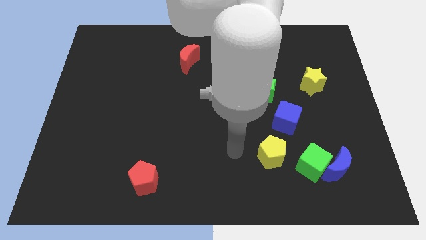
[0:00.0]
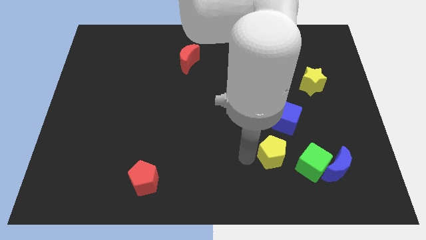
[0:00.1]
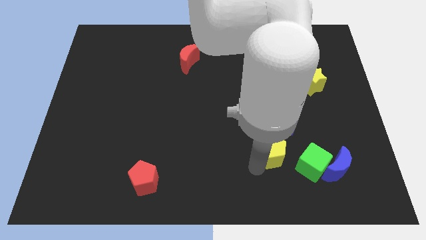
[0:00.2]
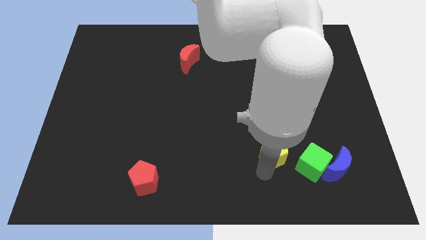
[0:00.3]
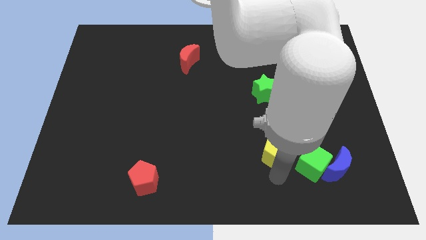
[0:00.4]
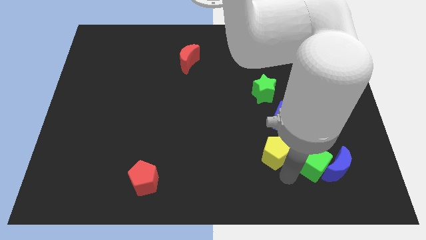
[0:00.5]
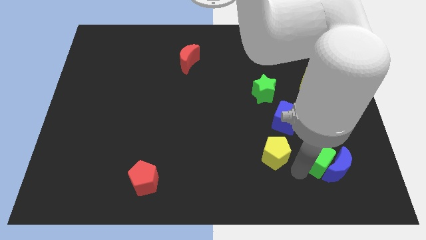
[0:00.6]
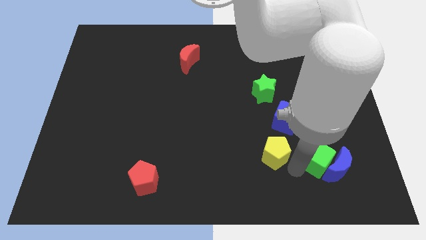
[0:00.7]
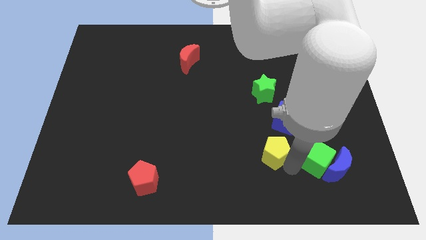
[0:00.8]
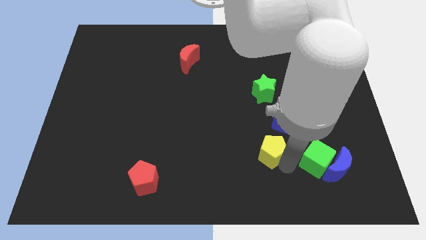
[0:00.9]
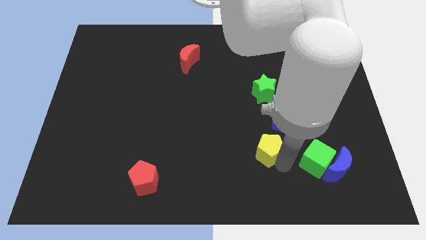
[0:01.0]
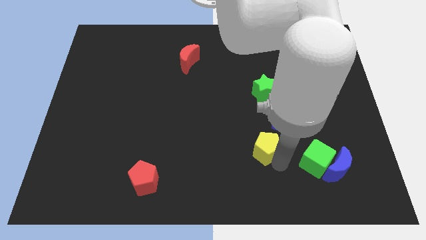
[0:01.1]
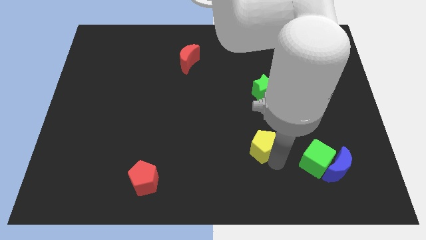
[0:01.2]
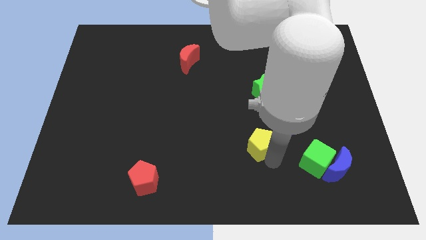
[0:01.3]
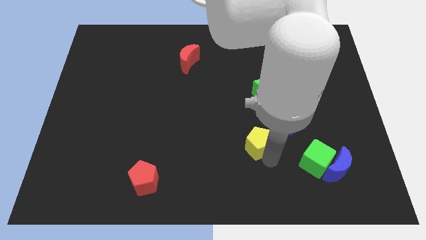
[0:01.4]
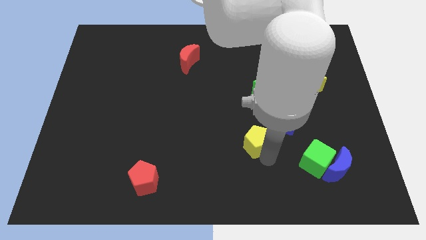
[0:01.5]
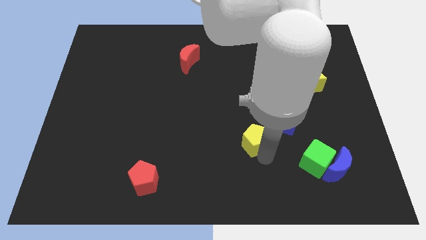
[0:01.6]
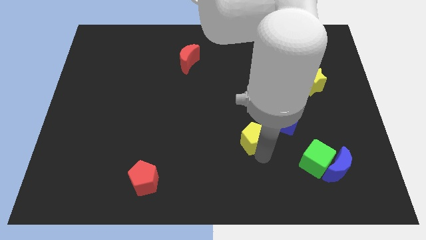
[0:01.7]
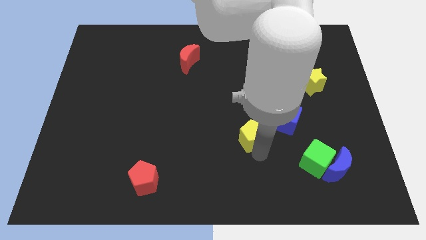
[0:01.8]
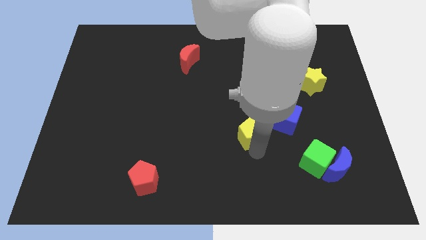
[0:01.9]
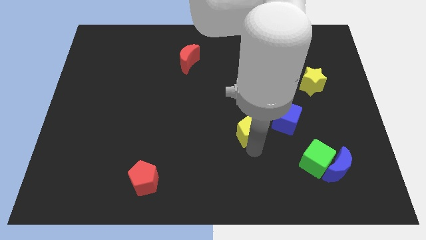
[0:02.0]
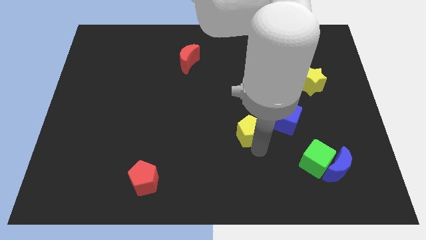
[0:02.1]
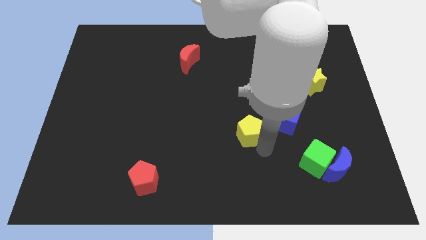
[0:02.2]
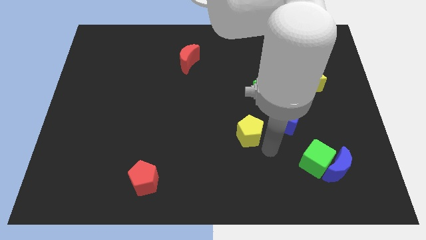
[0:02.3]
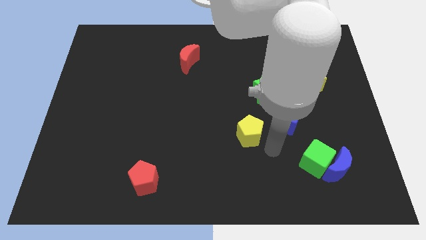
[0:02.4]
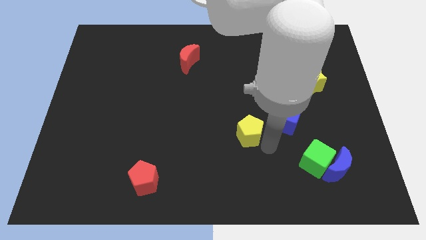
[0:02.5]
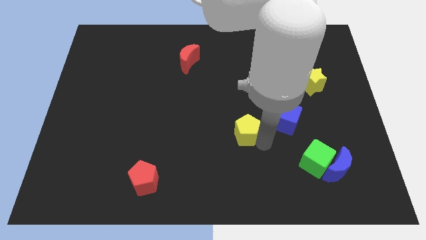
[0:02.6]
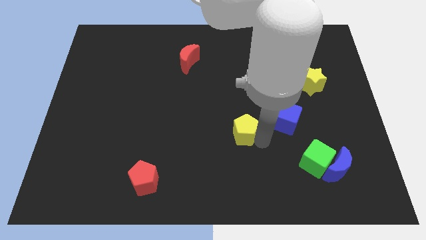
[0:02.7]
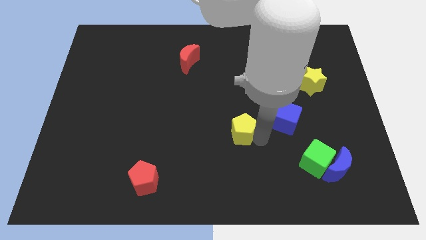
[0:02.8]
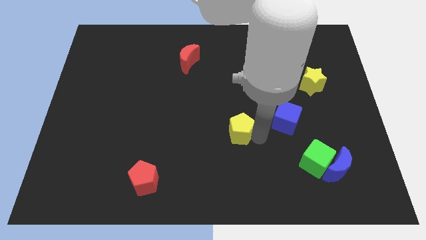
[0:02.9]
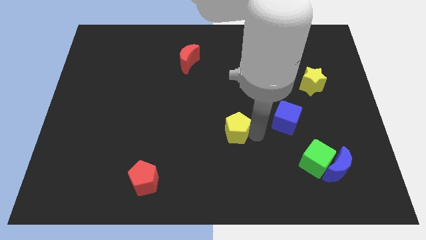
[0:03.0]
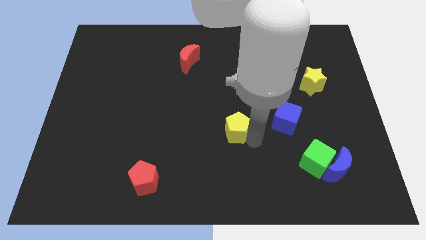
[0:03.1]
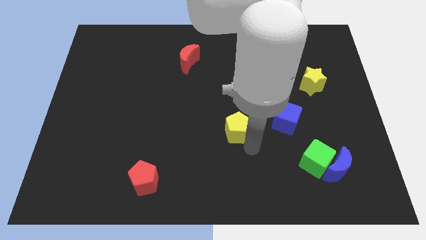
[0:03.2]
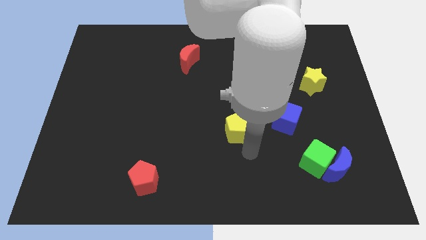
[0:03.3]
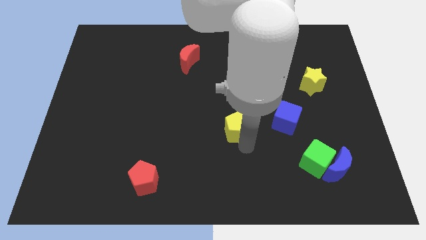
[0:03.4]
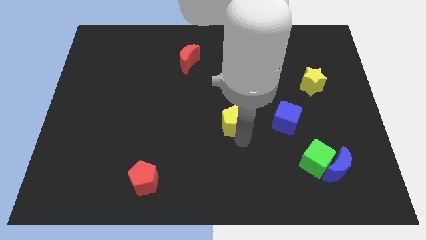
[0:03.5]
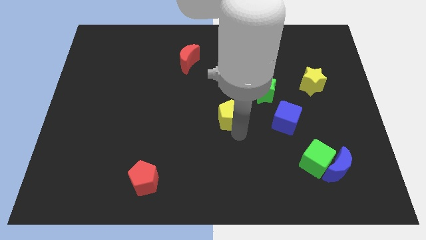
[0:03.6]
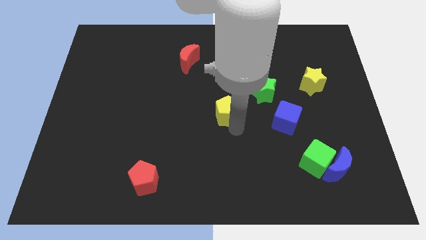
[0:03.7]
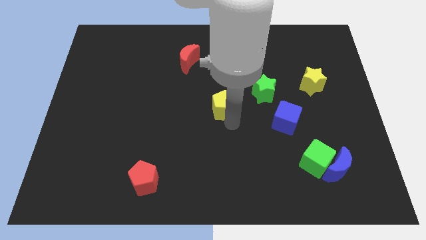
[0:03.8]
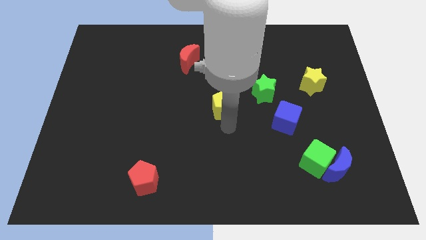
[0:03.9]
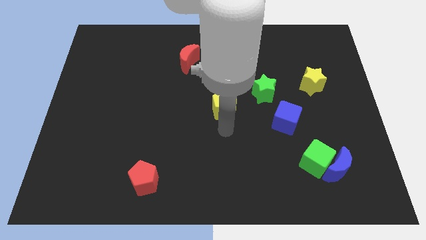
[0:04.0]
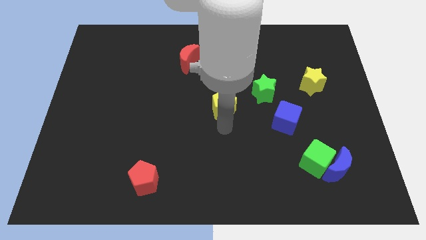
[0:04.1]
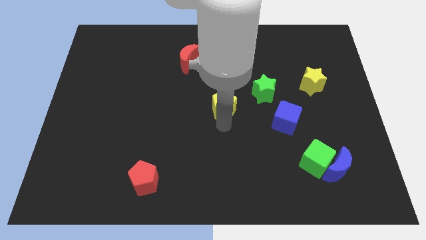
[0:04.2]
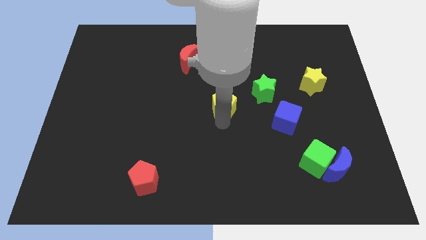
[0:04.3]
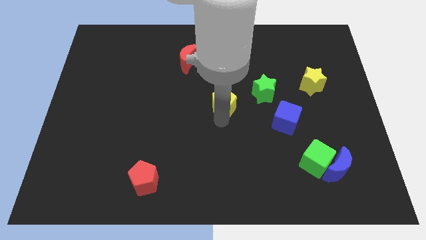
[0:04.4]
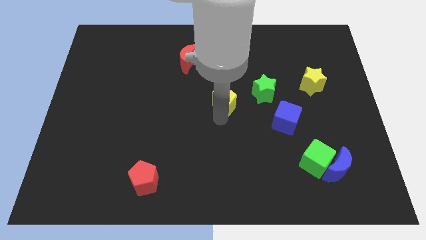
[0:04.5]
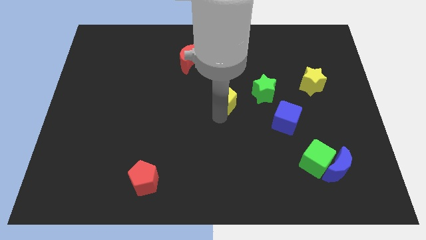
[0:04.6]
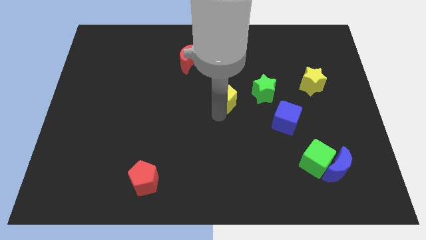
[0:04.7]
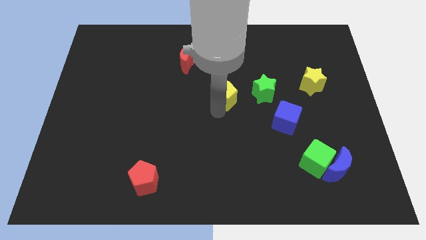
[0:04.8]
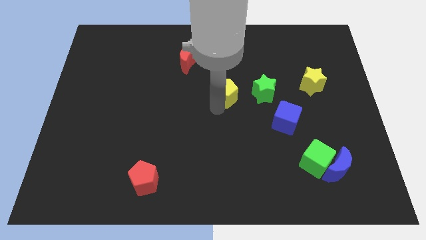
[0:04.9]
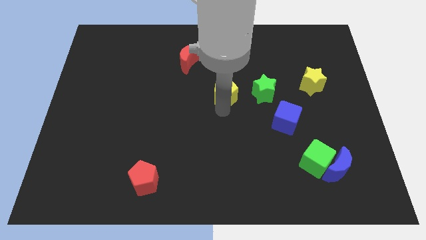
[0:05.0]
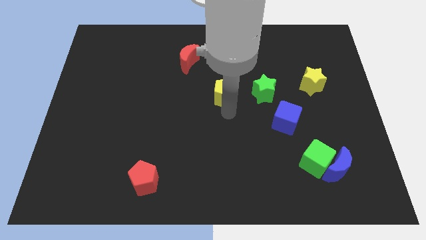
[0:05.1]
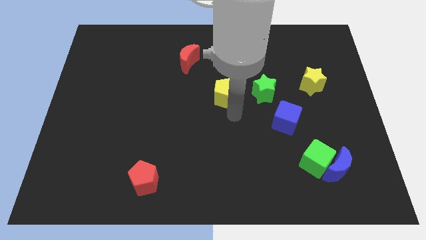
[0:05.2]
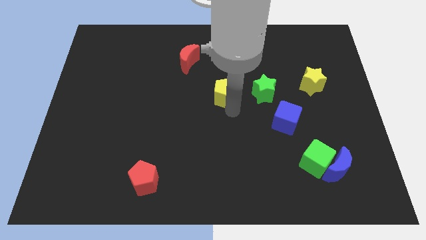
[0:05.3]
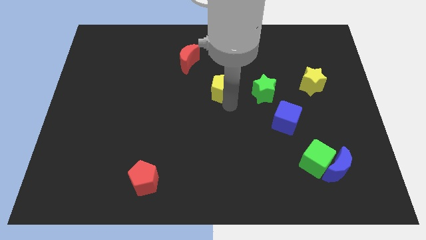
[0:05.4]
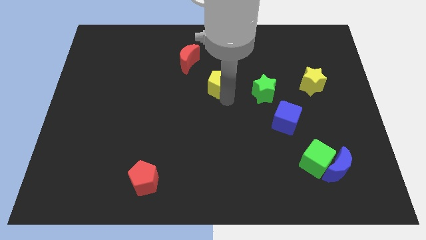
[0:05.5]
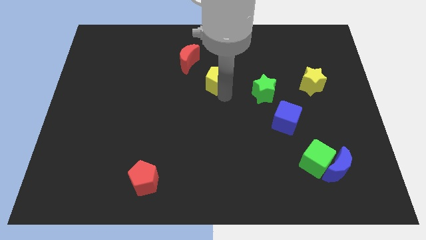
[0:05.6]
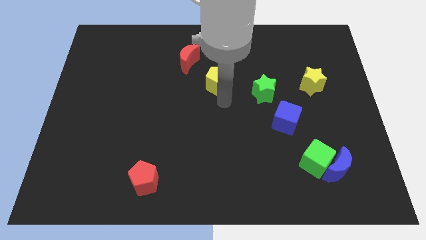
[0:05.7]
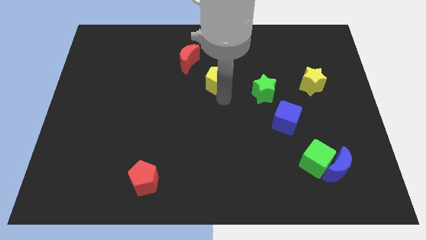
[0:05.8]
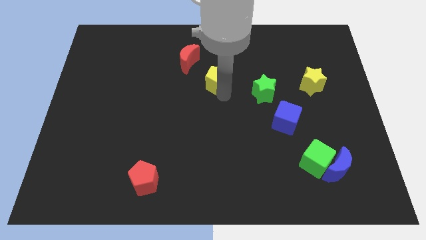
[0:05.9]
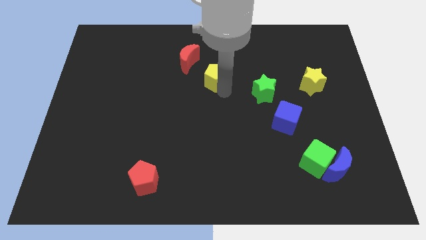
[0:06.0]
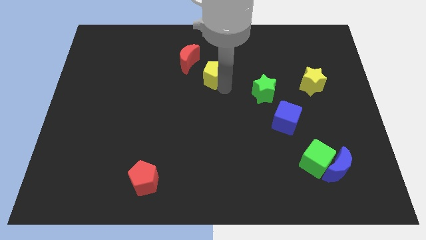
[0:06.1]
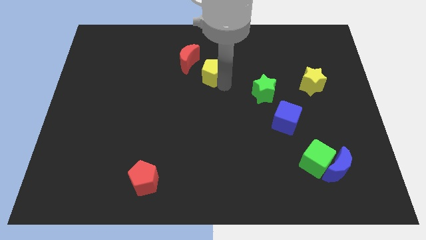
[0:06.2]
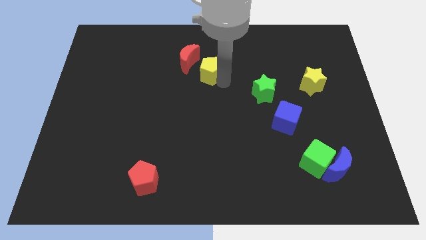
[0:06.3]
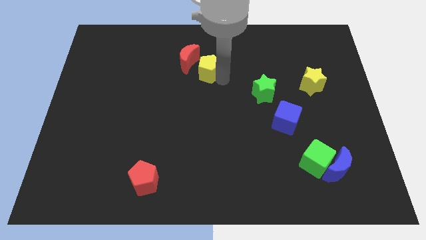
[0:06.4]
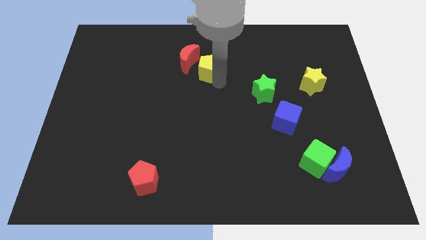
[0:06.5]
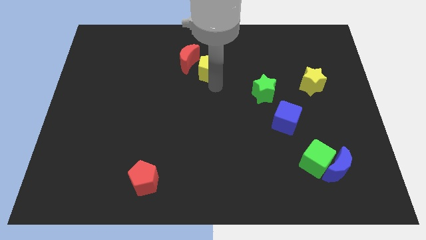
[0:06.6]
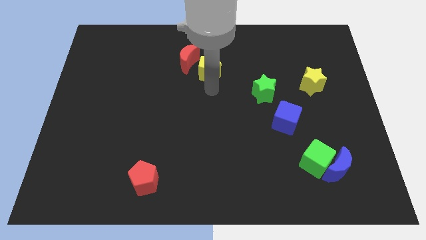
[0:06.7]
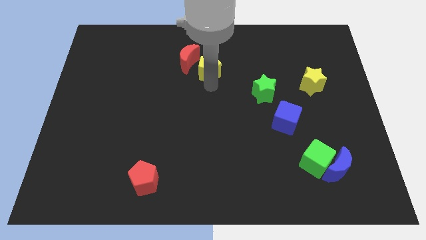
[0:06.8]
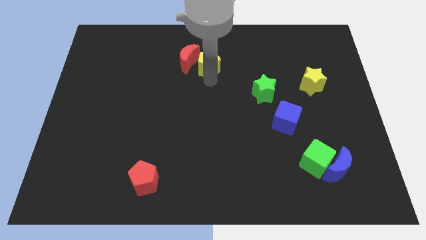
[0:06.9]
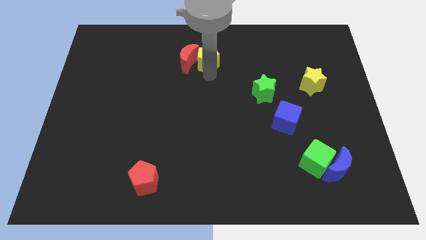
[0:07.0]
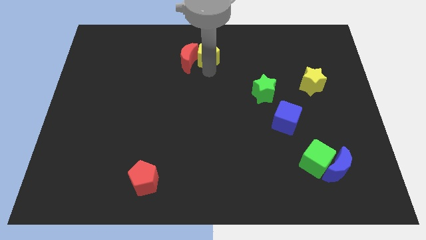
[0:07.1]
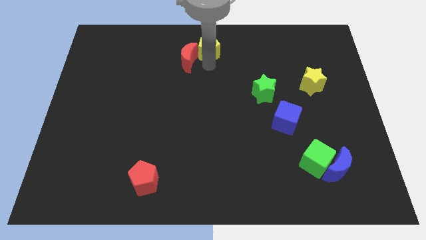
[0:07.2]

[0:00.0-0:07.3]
slide the yellow pentagon to the top
